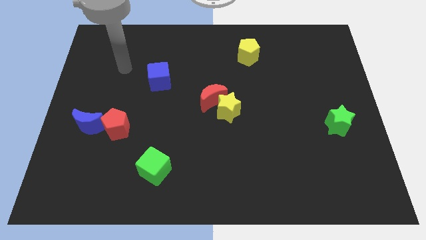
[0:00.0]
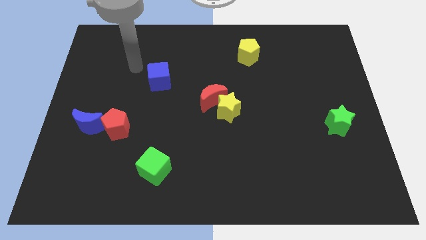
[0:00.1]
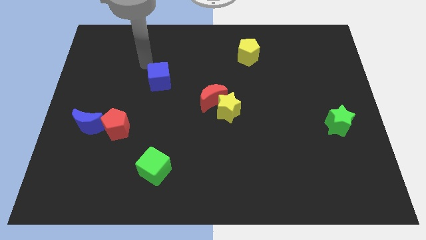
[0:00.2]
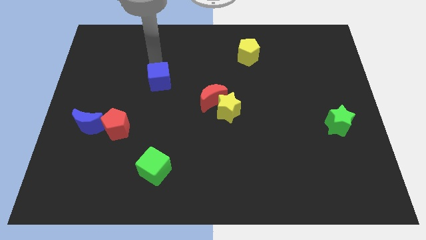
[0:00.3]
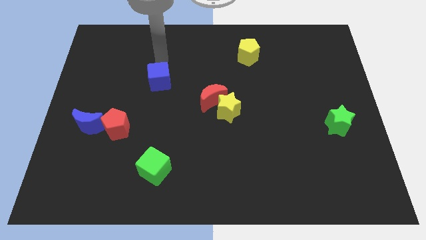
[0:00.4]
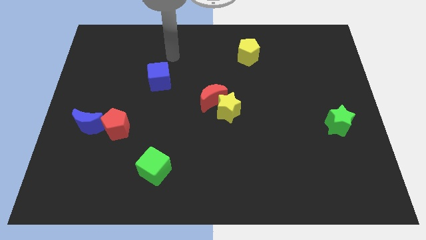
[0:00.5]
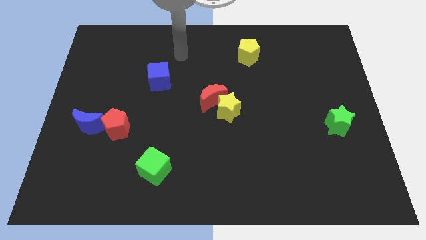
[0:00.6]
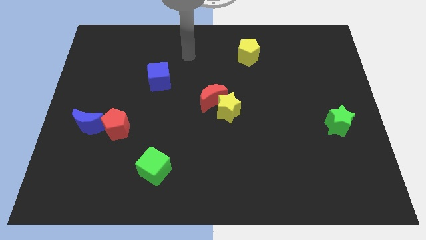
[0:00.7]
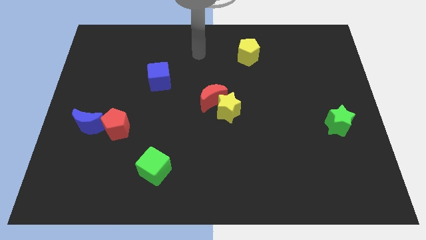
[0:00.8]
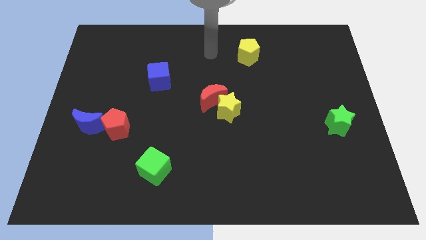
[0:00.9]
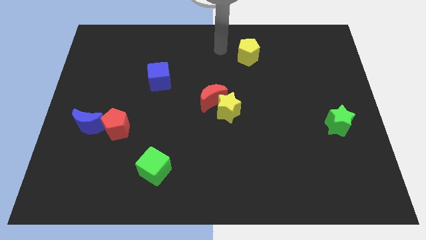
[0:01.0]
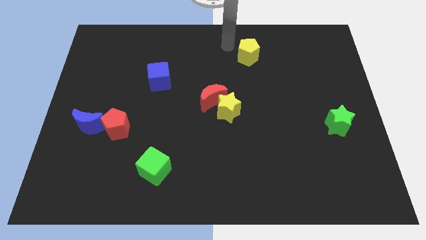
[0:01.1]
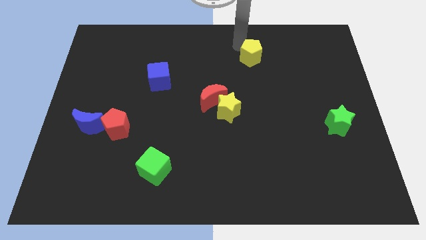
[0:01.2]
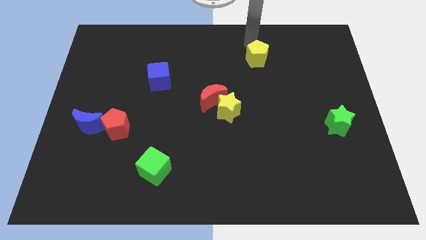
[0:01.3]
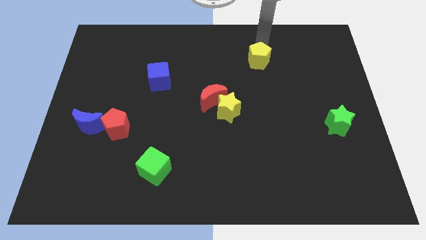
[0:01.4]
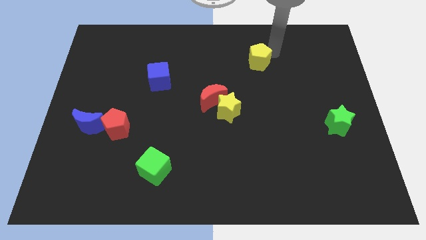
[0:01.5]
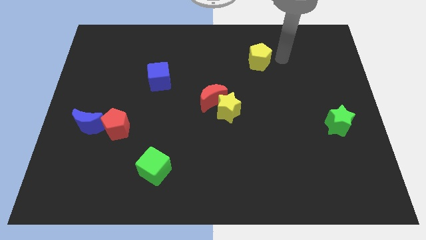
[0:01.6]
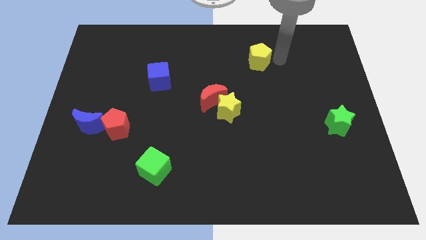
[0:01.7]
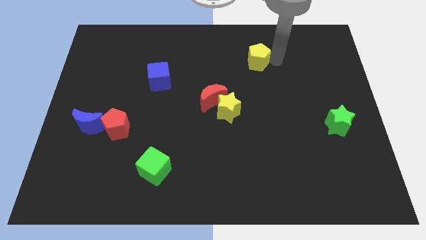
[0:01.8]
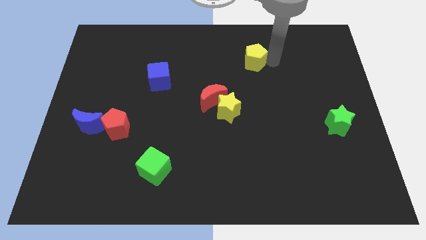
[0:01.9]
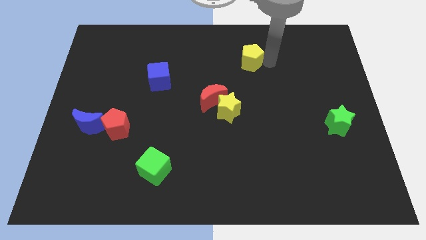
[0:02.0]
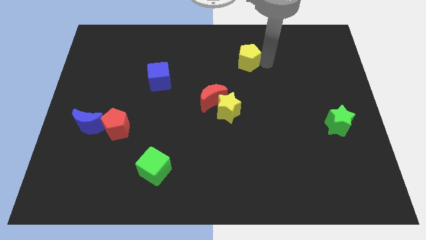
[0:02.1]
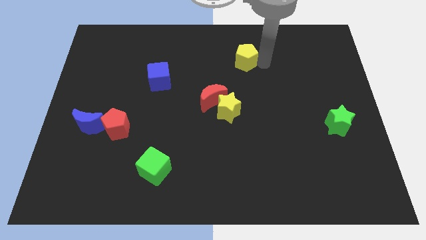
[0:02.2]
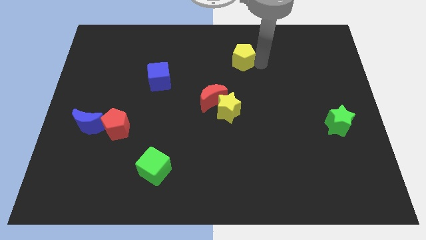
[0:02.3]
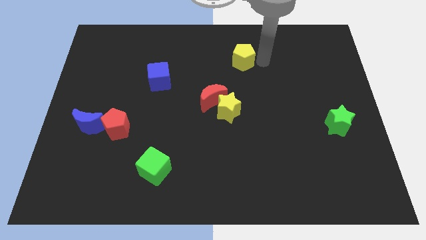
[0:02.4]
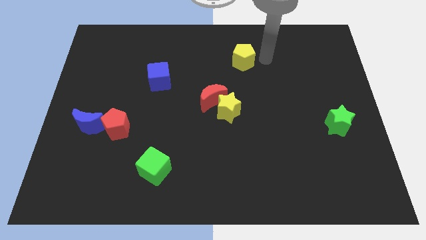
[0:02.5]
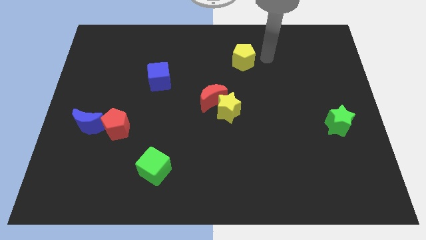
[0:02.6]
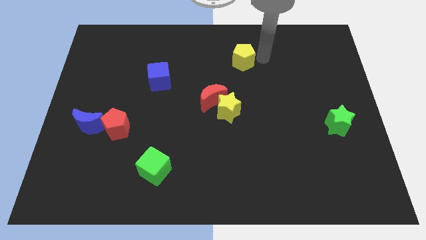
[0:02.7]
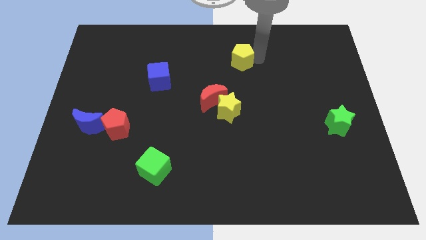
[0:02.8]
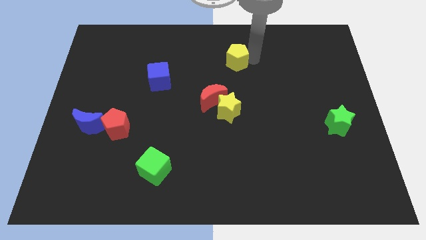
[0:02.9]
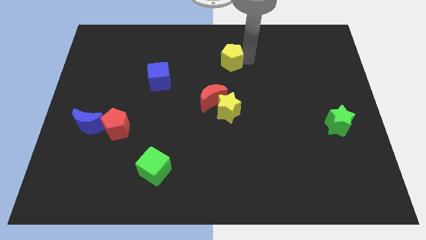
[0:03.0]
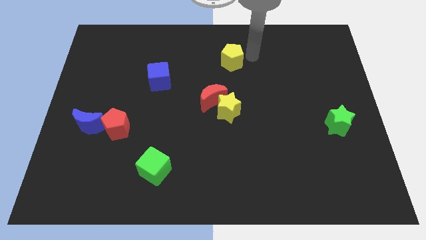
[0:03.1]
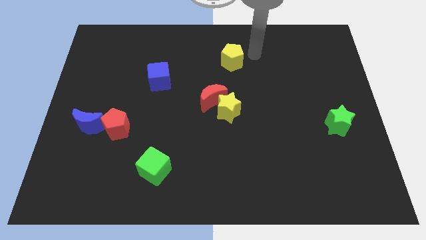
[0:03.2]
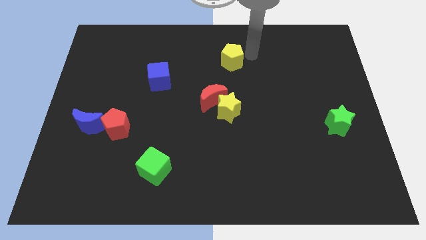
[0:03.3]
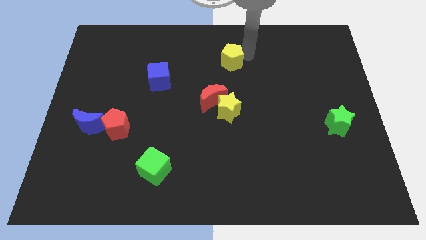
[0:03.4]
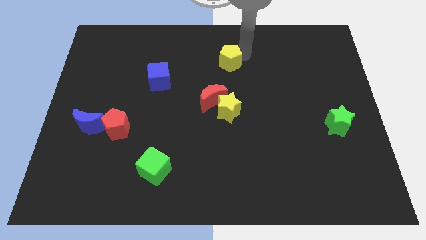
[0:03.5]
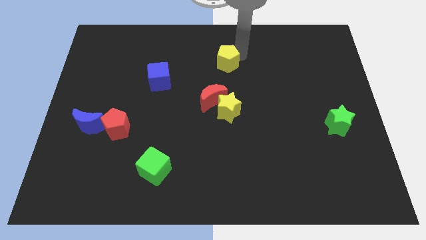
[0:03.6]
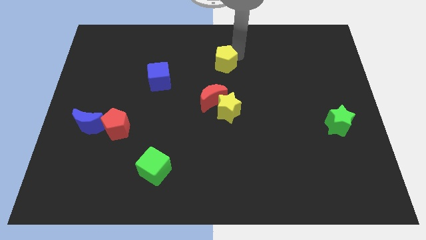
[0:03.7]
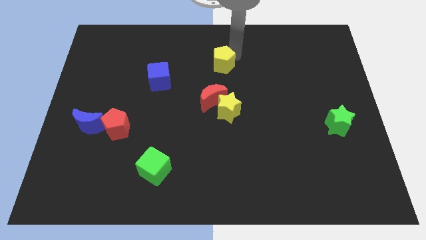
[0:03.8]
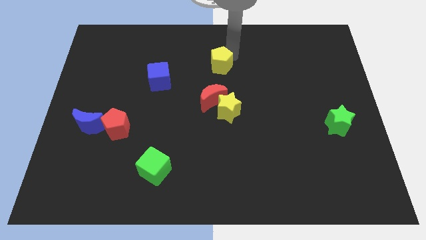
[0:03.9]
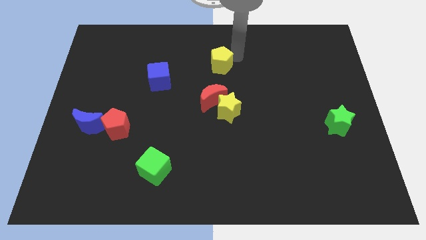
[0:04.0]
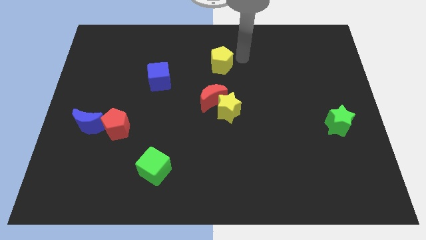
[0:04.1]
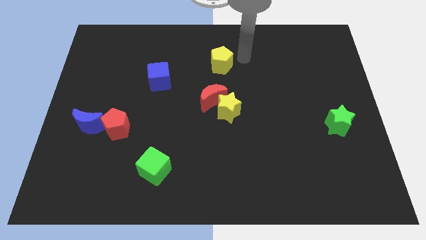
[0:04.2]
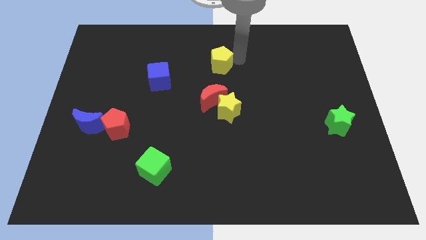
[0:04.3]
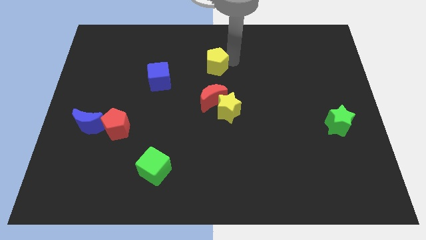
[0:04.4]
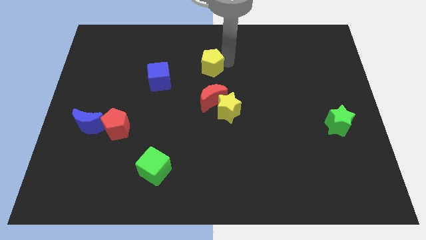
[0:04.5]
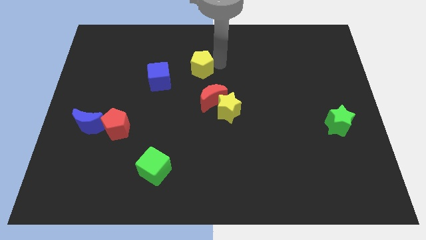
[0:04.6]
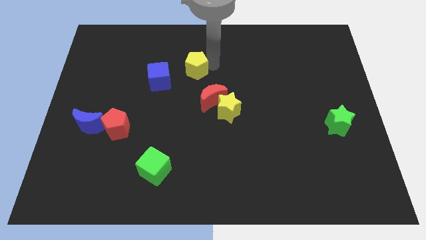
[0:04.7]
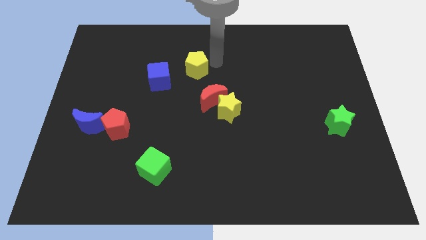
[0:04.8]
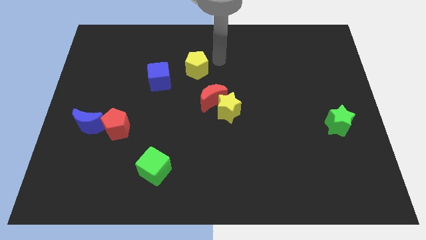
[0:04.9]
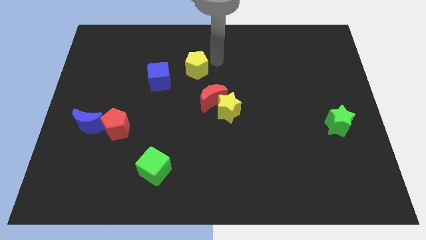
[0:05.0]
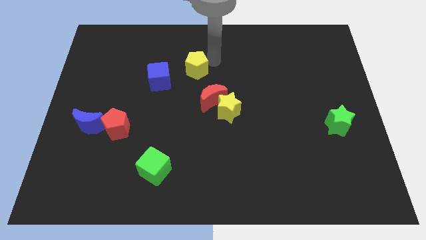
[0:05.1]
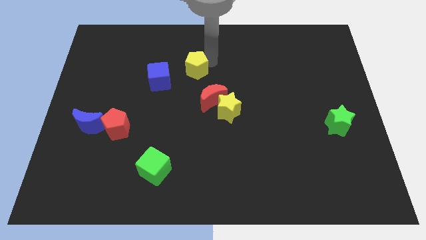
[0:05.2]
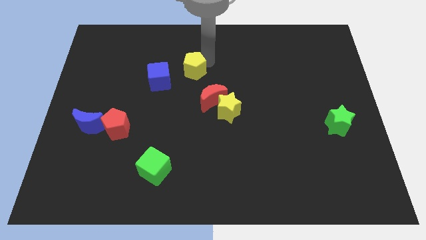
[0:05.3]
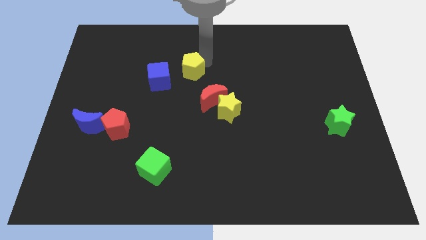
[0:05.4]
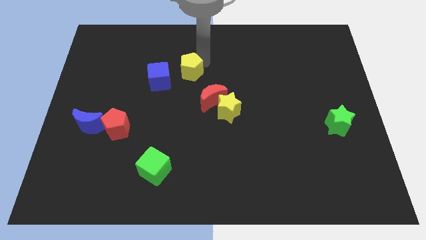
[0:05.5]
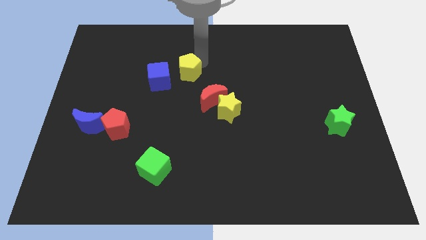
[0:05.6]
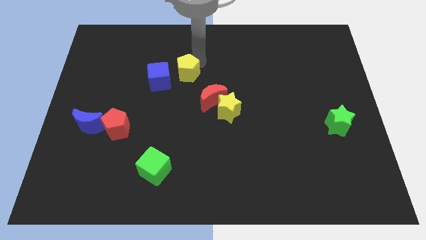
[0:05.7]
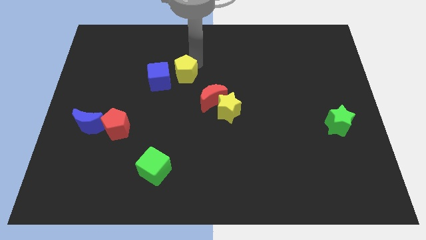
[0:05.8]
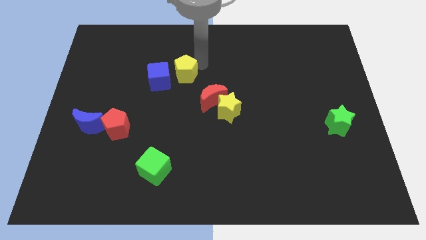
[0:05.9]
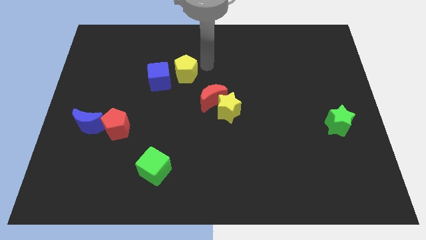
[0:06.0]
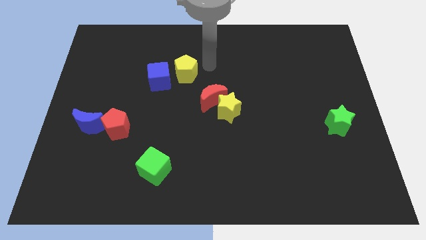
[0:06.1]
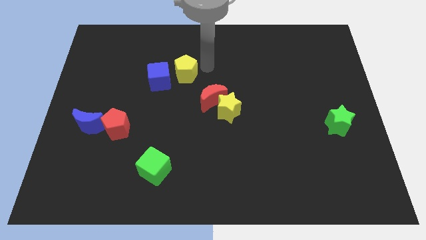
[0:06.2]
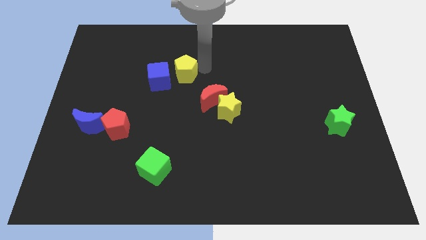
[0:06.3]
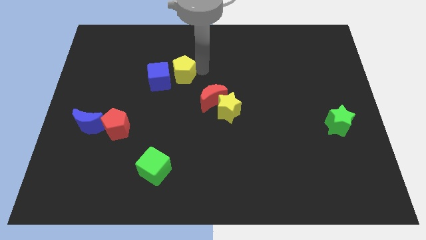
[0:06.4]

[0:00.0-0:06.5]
put the yellow pentagon close to the blue cube
